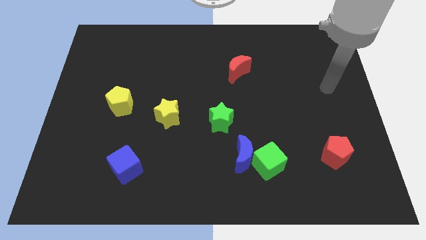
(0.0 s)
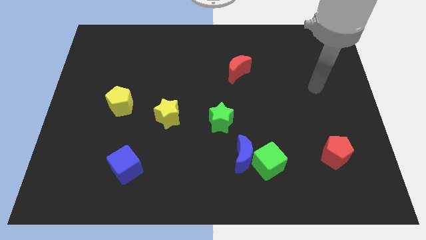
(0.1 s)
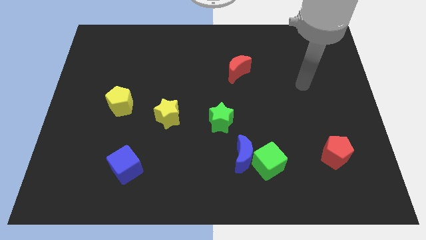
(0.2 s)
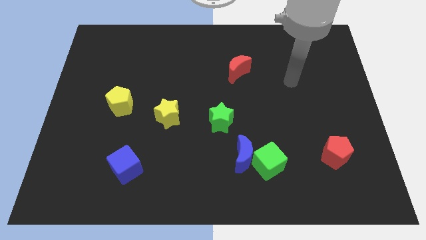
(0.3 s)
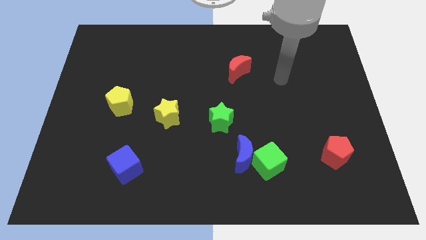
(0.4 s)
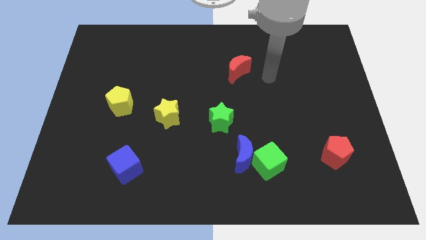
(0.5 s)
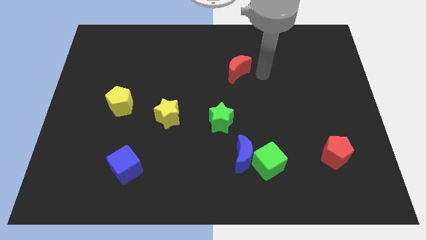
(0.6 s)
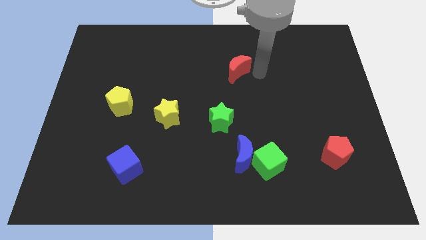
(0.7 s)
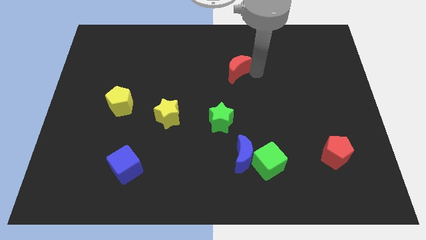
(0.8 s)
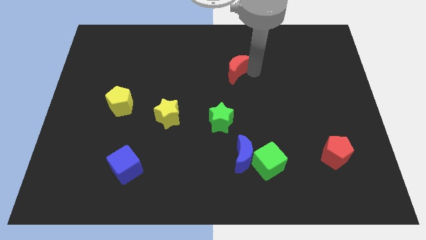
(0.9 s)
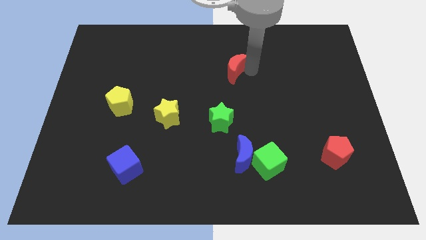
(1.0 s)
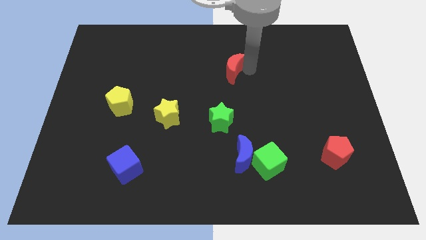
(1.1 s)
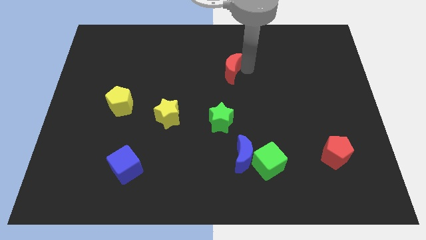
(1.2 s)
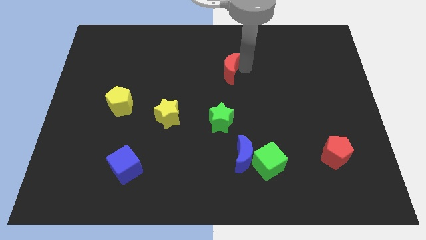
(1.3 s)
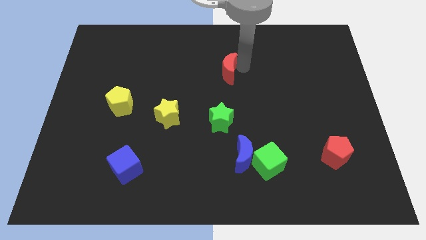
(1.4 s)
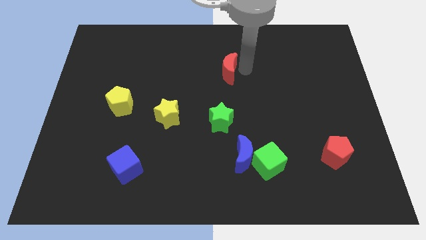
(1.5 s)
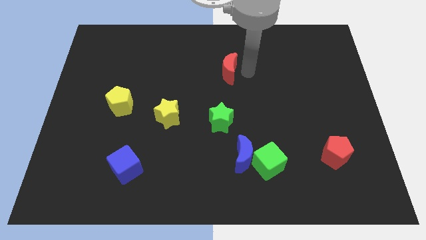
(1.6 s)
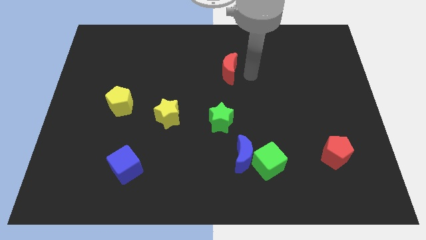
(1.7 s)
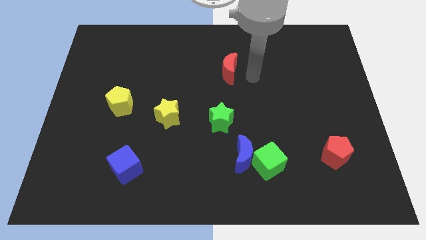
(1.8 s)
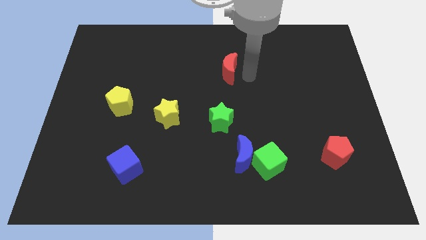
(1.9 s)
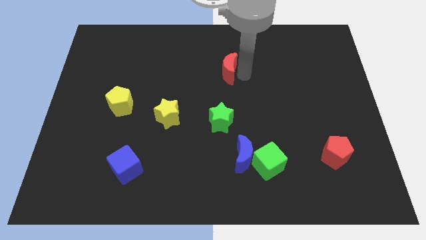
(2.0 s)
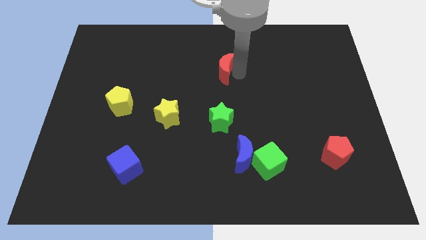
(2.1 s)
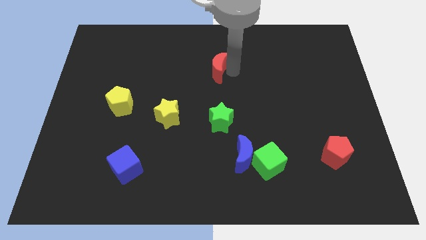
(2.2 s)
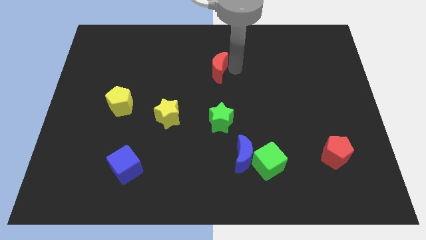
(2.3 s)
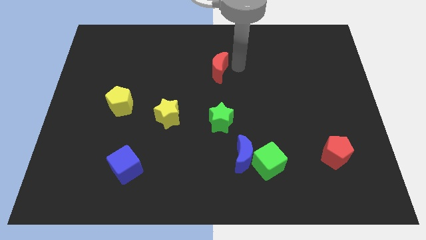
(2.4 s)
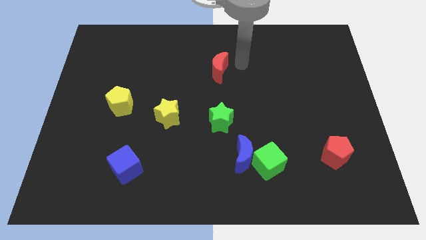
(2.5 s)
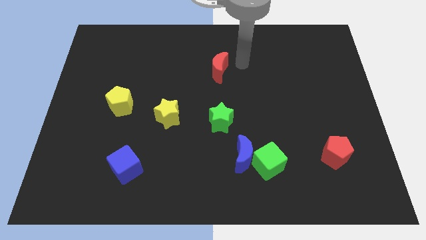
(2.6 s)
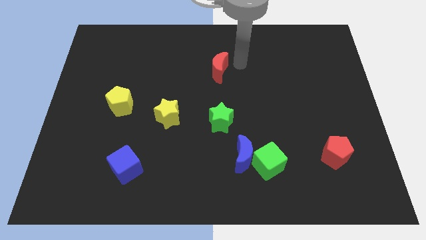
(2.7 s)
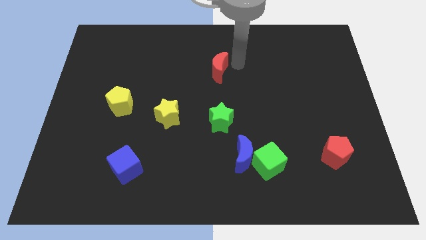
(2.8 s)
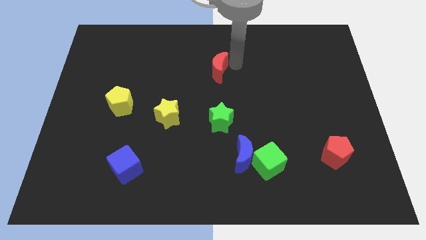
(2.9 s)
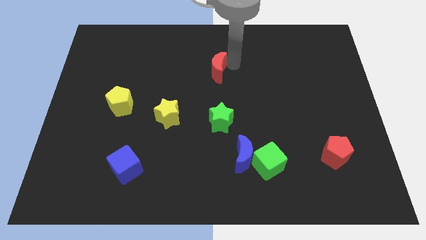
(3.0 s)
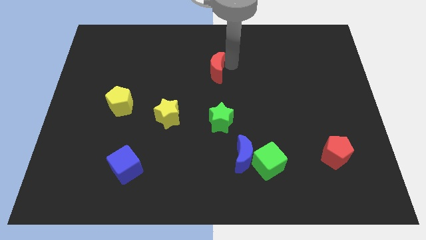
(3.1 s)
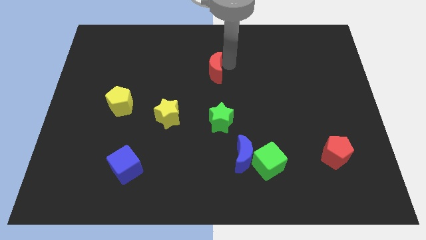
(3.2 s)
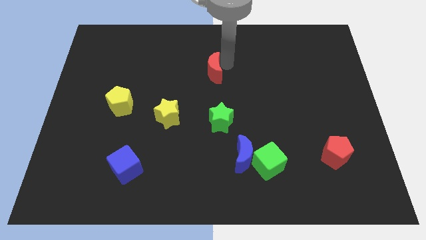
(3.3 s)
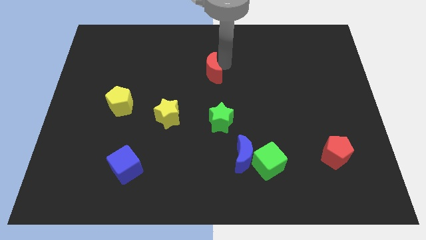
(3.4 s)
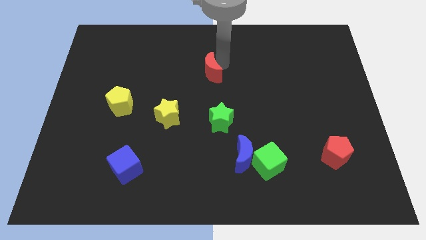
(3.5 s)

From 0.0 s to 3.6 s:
slide the red moon a little bit to the left

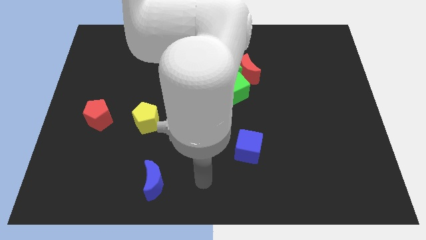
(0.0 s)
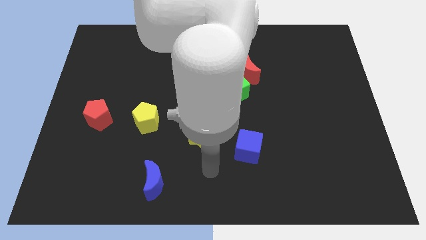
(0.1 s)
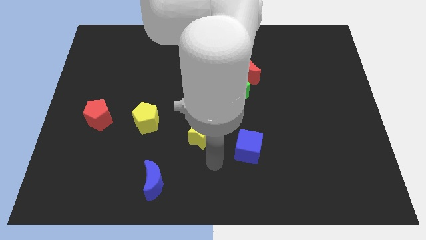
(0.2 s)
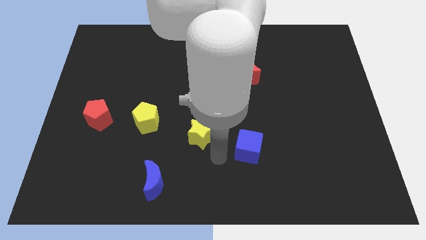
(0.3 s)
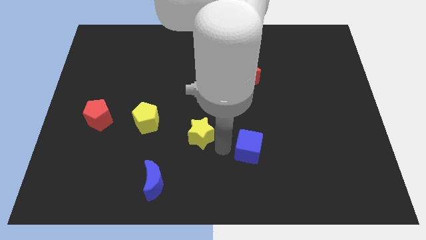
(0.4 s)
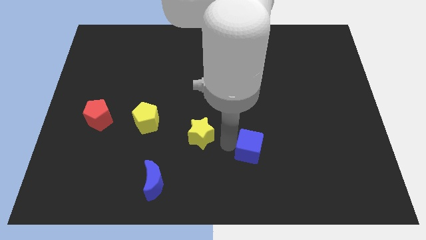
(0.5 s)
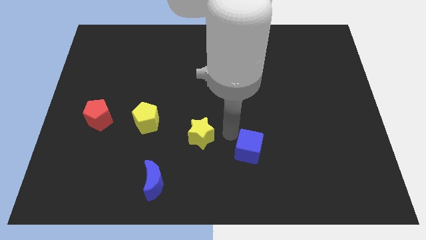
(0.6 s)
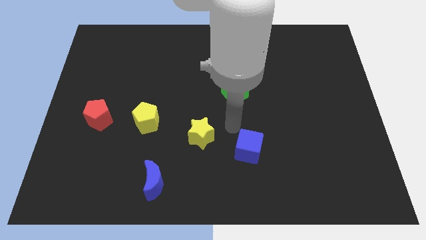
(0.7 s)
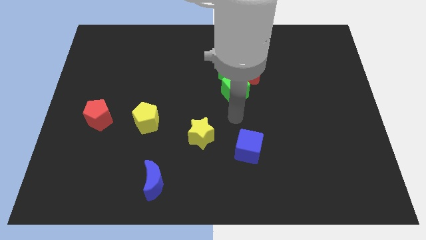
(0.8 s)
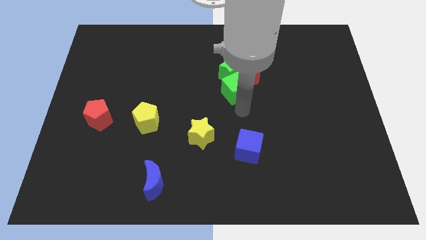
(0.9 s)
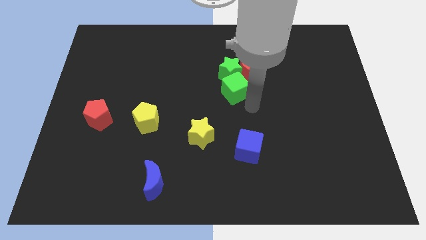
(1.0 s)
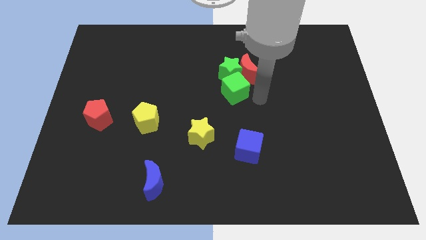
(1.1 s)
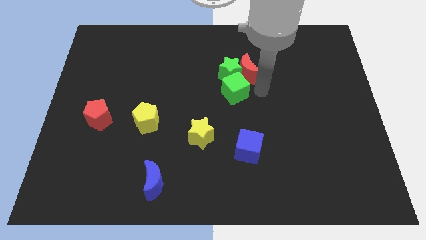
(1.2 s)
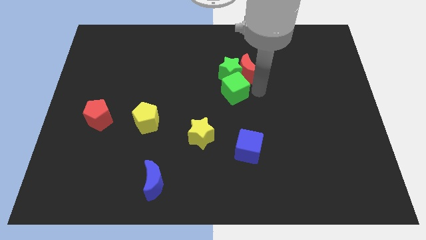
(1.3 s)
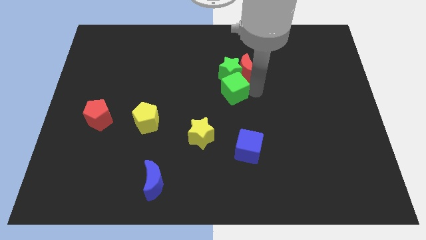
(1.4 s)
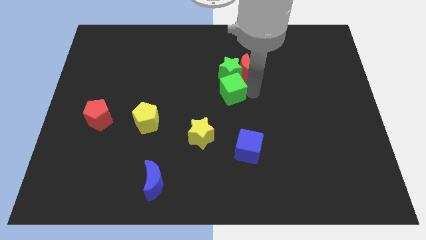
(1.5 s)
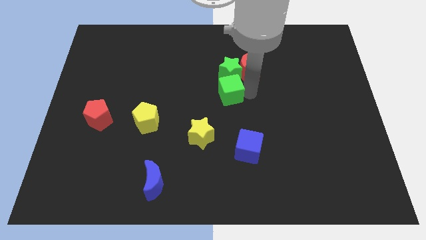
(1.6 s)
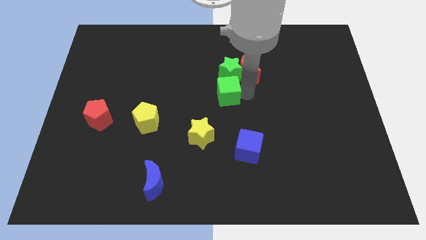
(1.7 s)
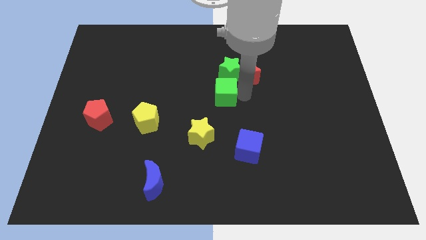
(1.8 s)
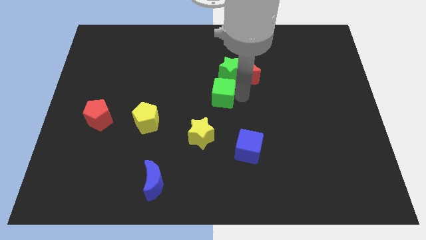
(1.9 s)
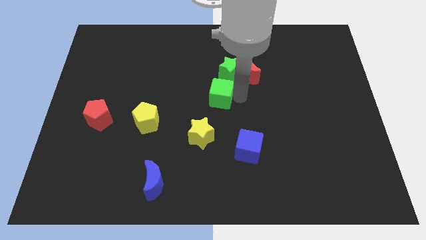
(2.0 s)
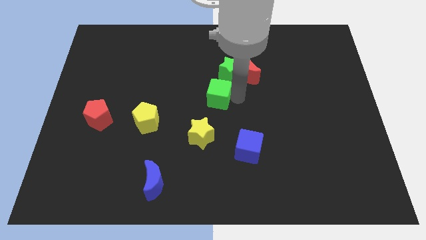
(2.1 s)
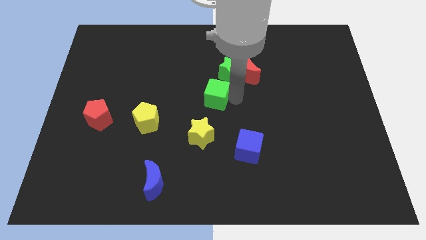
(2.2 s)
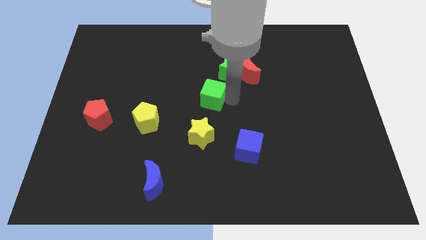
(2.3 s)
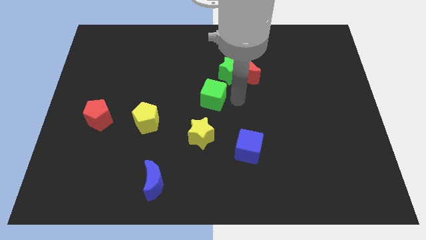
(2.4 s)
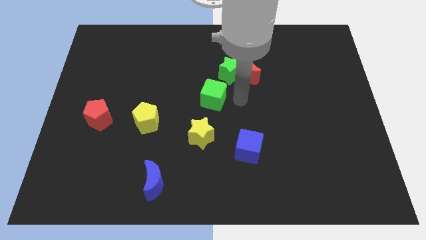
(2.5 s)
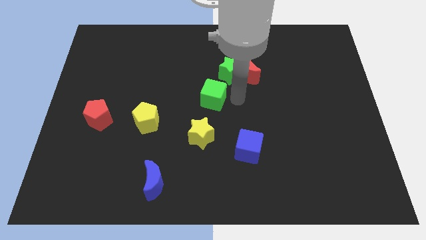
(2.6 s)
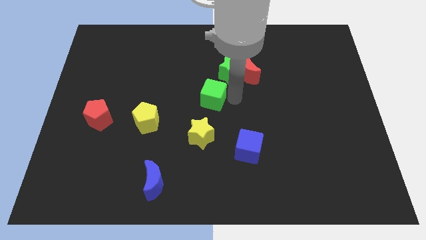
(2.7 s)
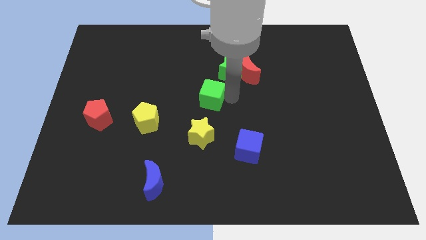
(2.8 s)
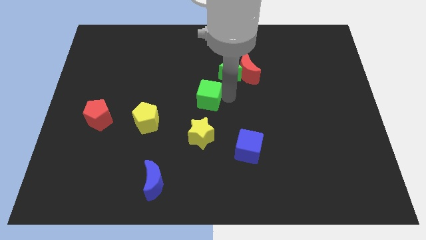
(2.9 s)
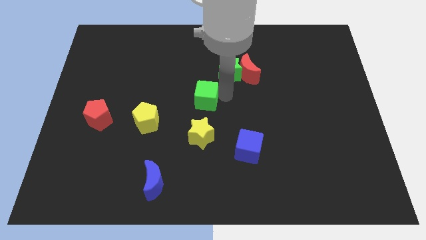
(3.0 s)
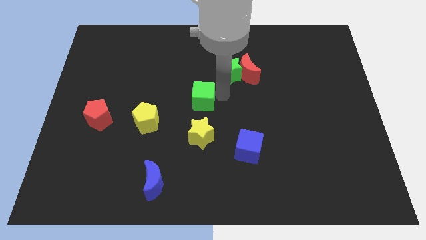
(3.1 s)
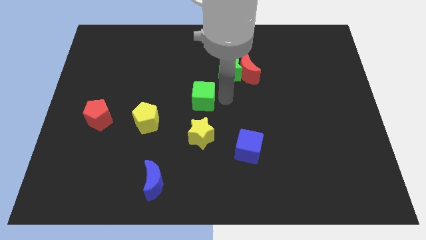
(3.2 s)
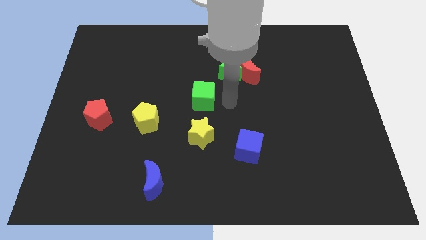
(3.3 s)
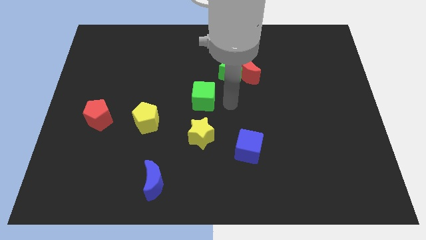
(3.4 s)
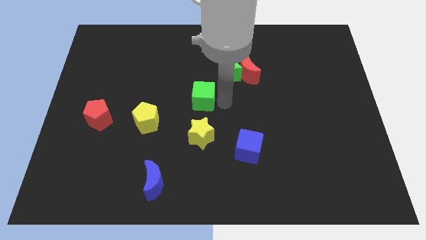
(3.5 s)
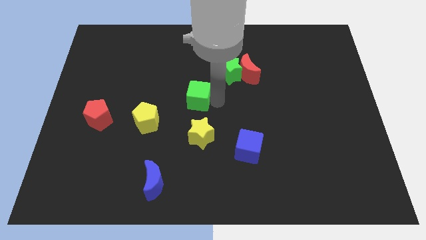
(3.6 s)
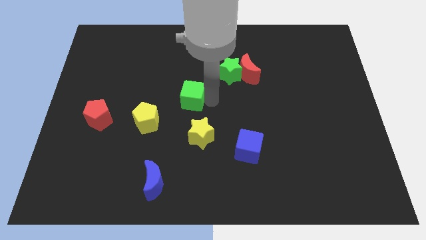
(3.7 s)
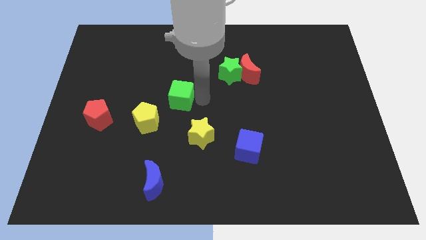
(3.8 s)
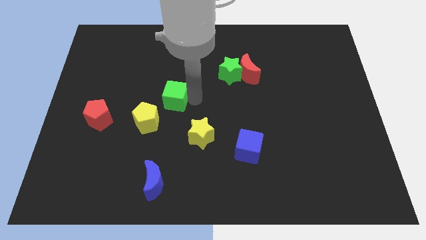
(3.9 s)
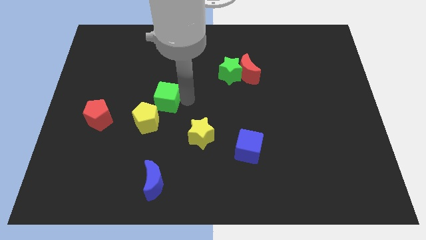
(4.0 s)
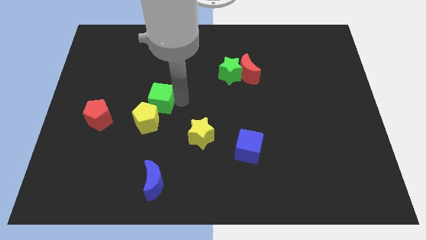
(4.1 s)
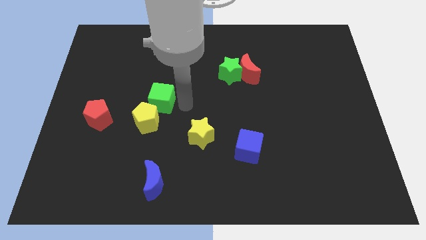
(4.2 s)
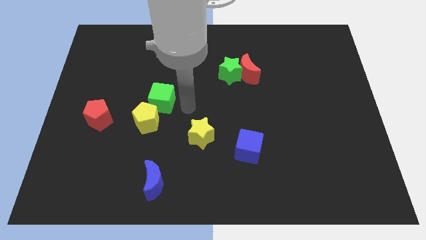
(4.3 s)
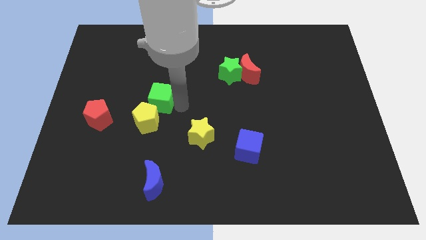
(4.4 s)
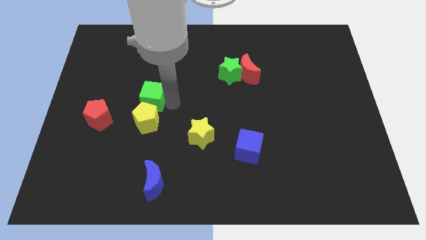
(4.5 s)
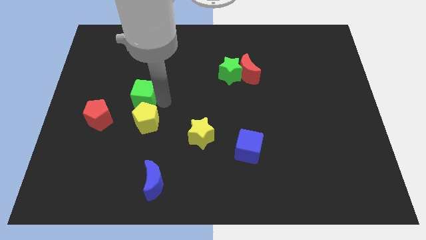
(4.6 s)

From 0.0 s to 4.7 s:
move the green cube left
